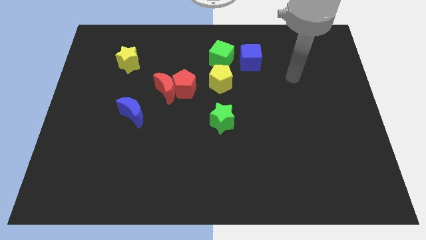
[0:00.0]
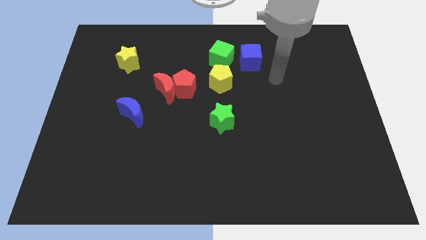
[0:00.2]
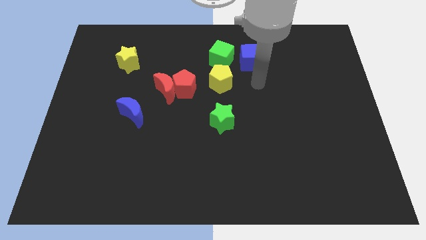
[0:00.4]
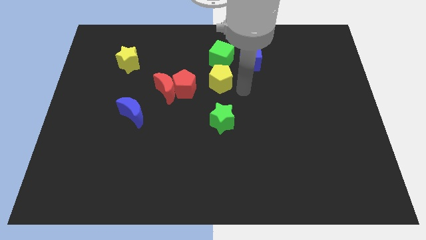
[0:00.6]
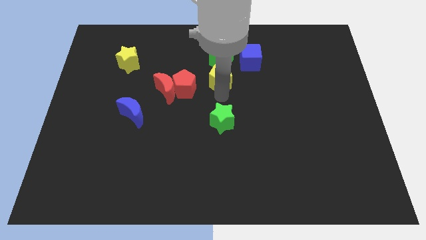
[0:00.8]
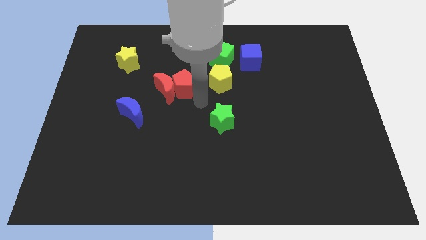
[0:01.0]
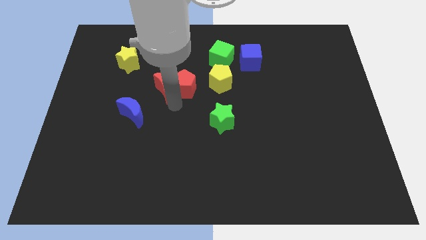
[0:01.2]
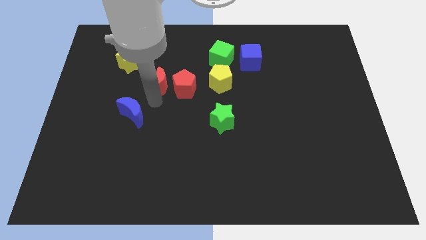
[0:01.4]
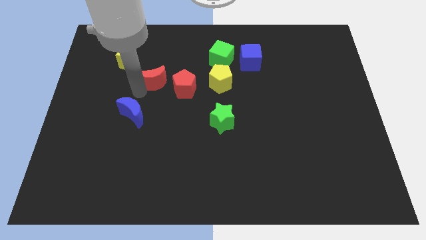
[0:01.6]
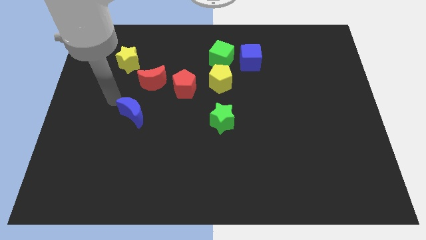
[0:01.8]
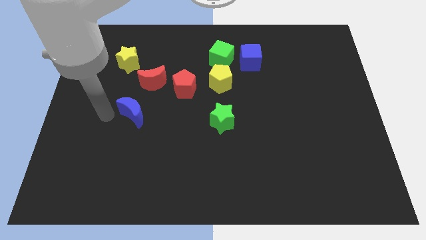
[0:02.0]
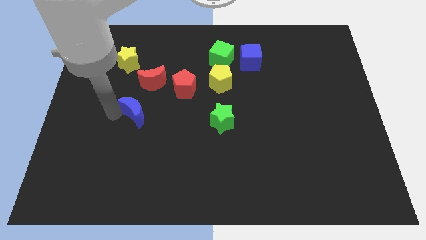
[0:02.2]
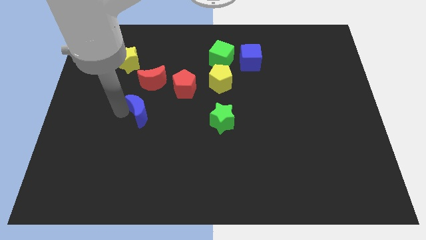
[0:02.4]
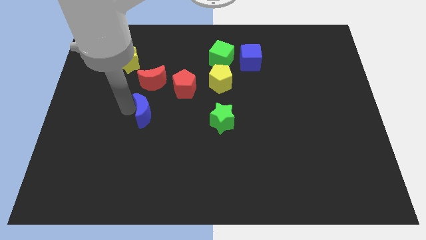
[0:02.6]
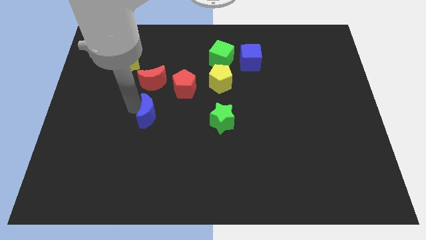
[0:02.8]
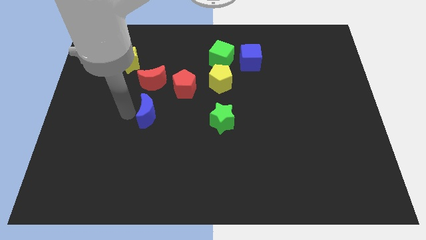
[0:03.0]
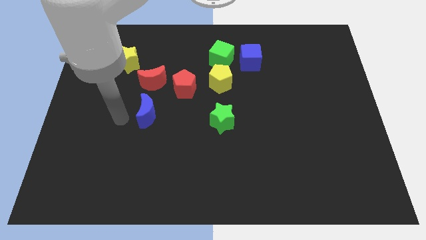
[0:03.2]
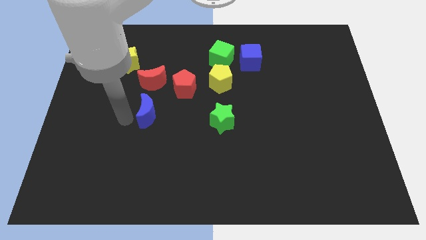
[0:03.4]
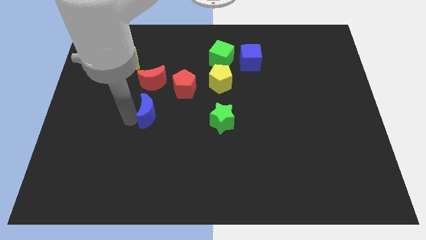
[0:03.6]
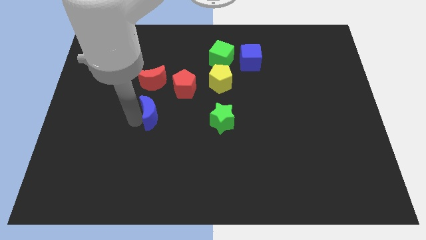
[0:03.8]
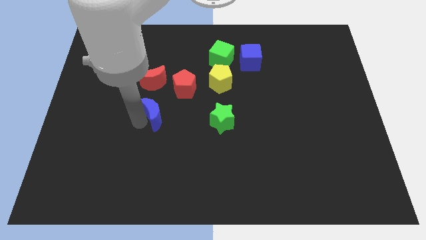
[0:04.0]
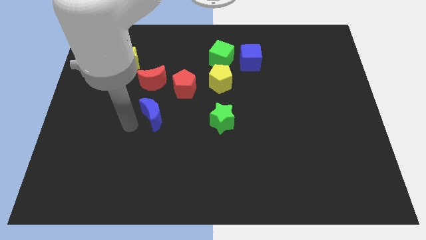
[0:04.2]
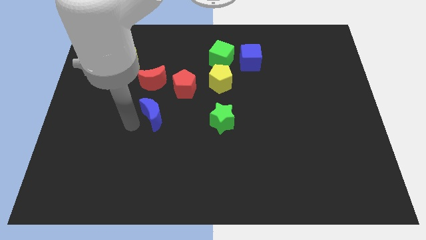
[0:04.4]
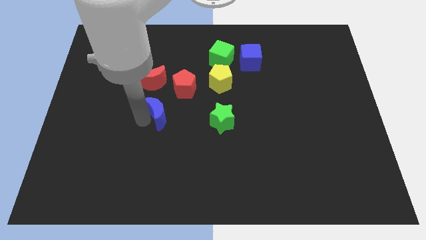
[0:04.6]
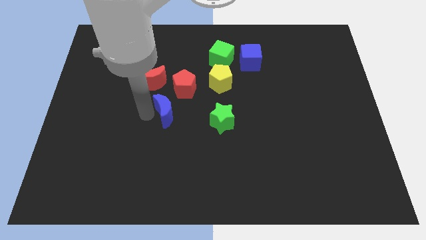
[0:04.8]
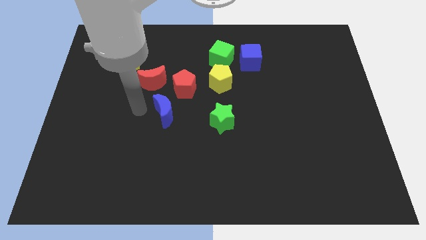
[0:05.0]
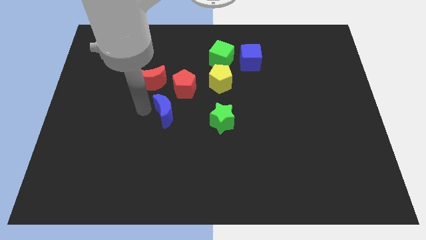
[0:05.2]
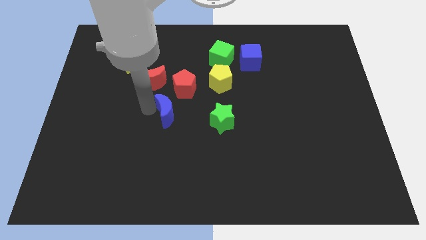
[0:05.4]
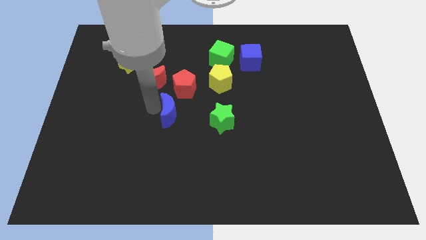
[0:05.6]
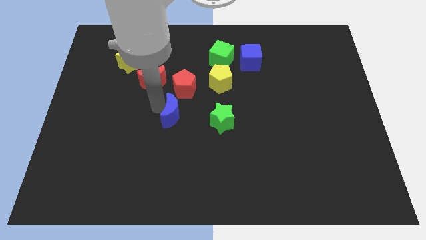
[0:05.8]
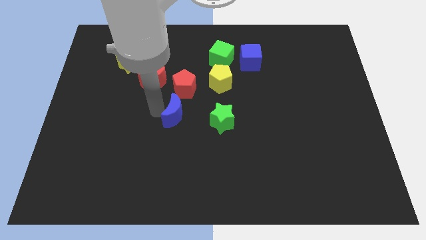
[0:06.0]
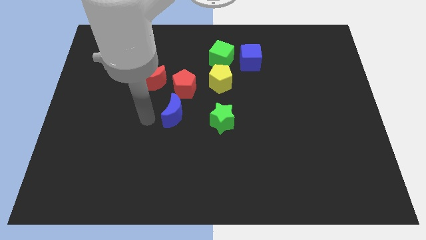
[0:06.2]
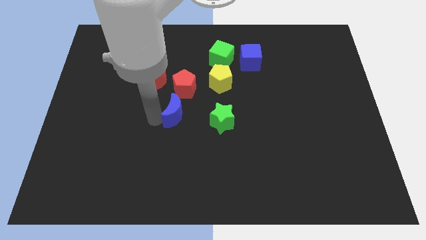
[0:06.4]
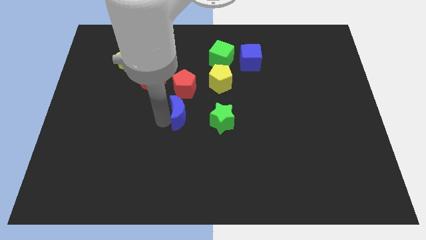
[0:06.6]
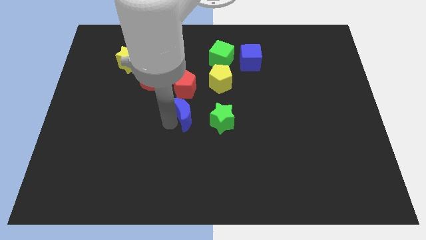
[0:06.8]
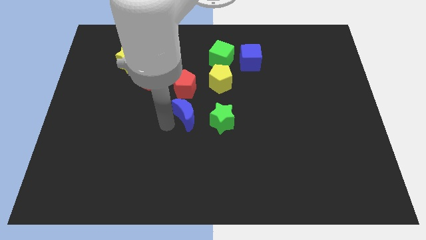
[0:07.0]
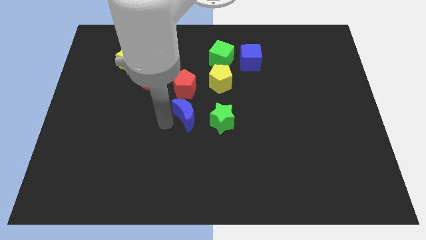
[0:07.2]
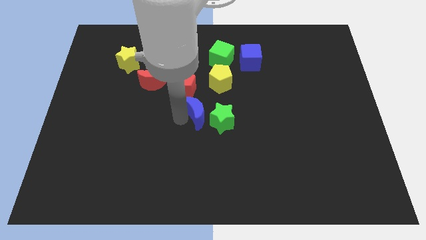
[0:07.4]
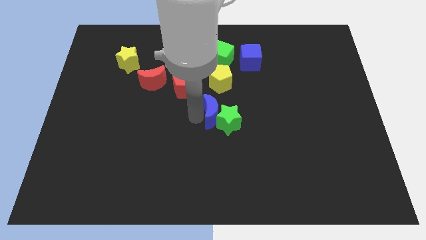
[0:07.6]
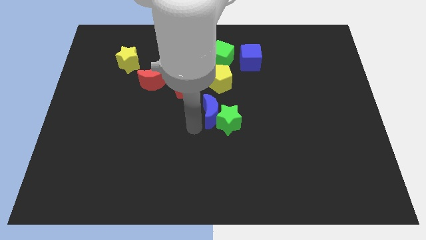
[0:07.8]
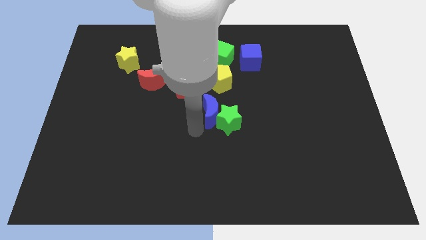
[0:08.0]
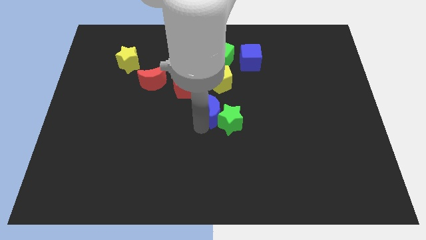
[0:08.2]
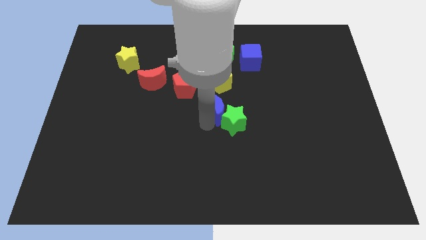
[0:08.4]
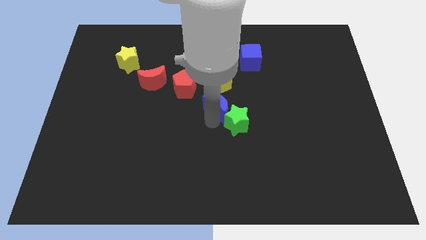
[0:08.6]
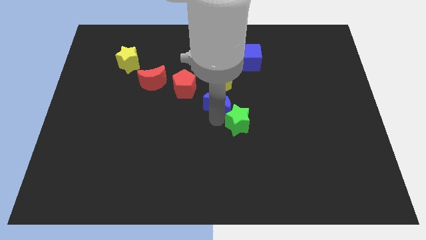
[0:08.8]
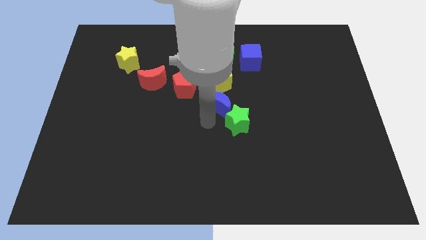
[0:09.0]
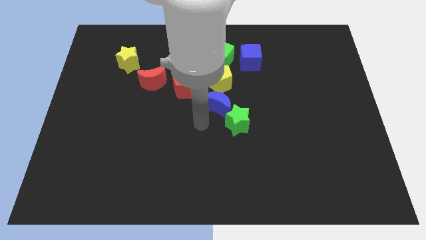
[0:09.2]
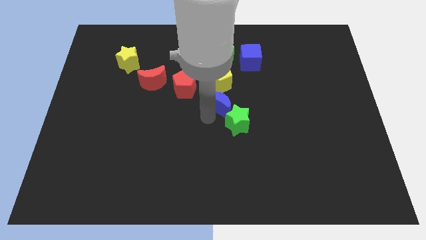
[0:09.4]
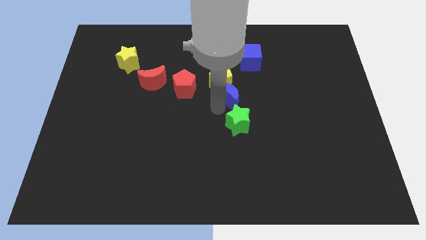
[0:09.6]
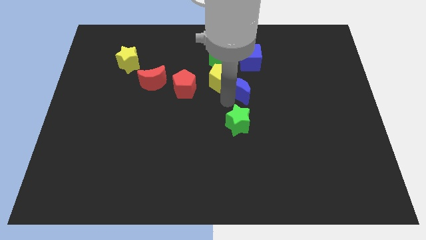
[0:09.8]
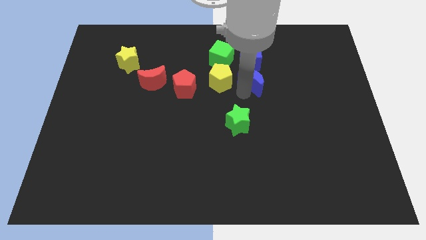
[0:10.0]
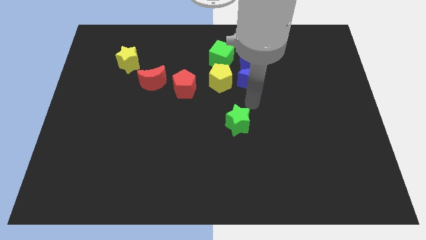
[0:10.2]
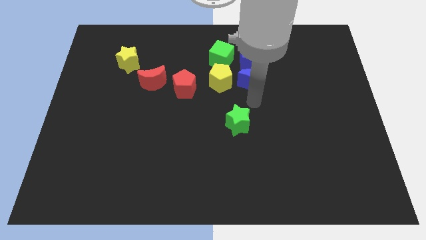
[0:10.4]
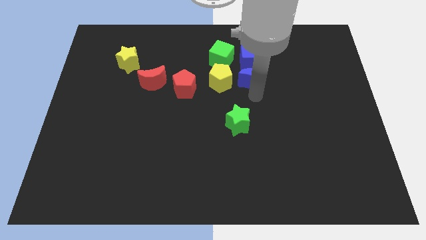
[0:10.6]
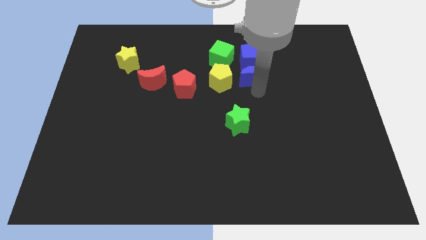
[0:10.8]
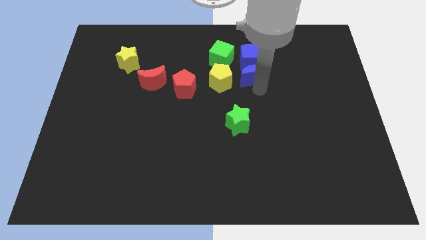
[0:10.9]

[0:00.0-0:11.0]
push the blue moon next to the blue cube

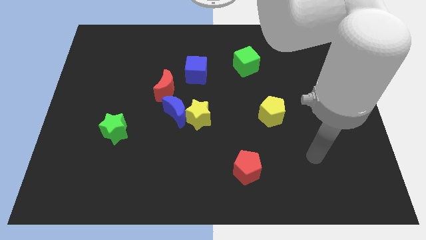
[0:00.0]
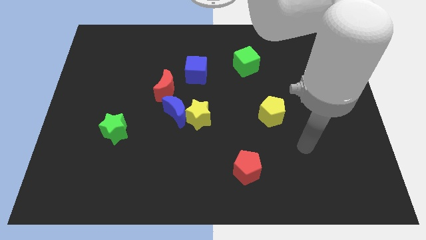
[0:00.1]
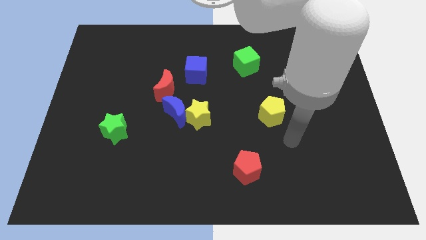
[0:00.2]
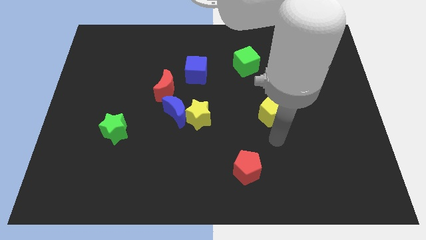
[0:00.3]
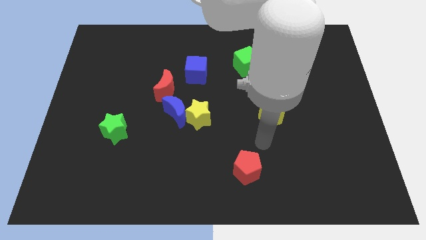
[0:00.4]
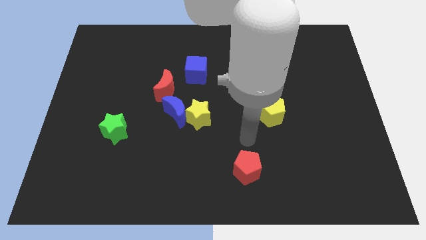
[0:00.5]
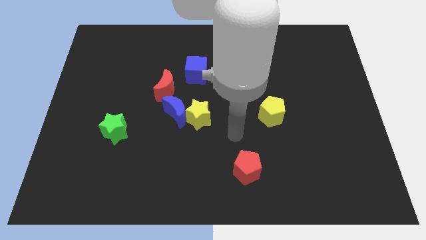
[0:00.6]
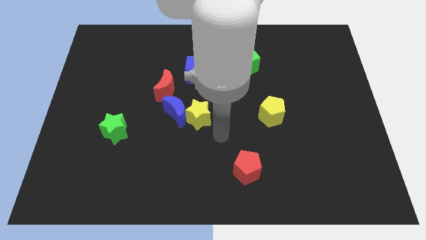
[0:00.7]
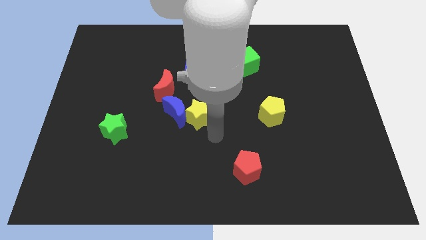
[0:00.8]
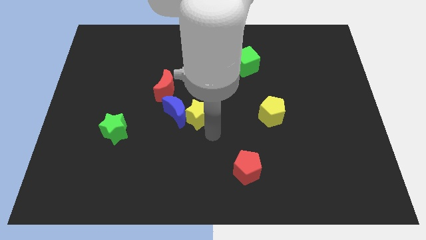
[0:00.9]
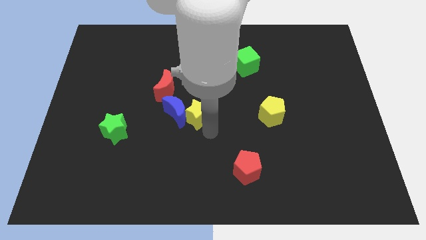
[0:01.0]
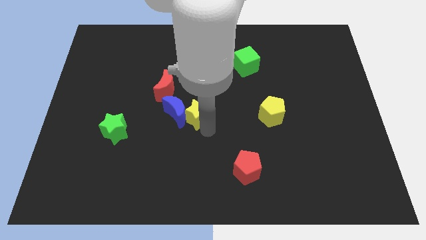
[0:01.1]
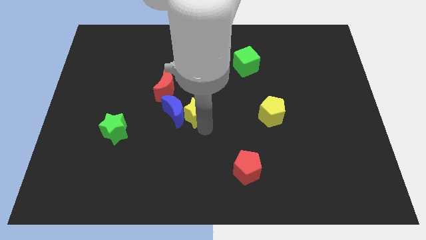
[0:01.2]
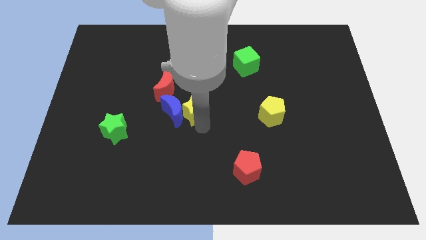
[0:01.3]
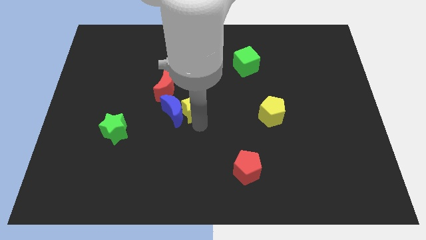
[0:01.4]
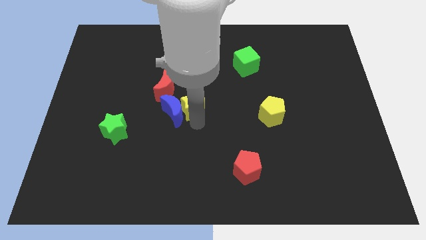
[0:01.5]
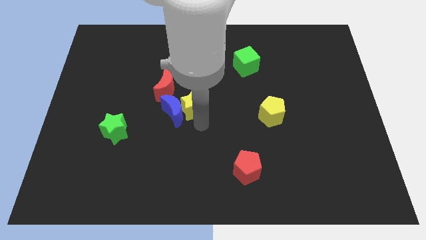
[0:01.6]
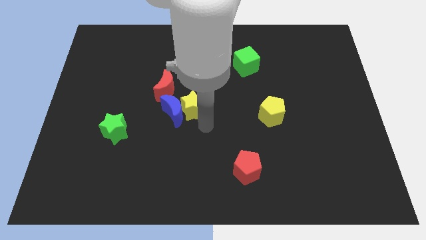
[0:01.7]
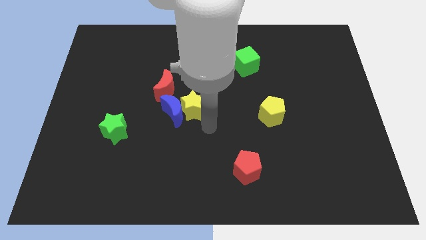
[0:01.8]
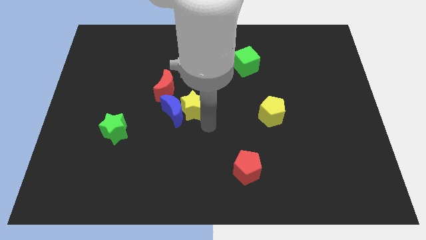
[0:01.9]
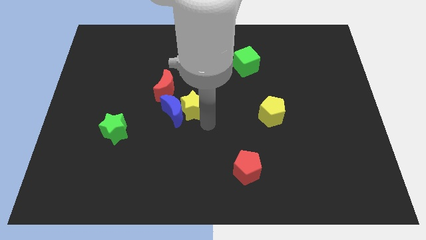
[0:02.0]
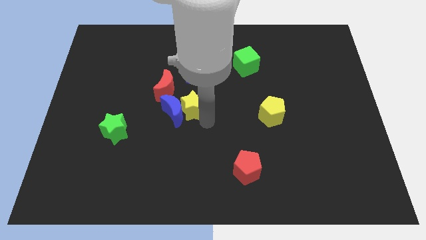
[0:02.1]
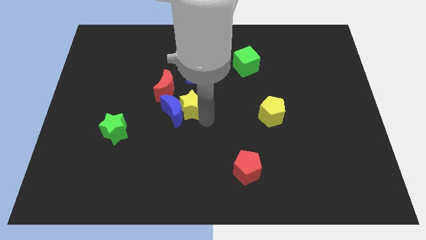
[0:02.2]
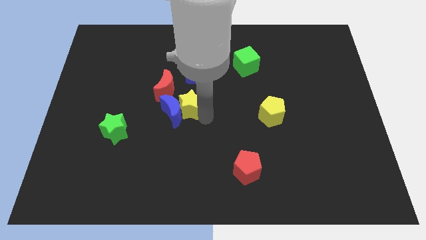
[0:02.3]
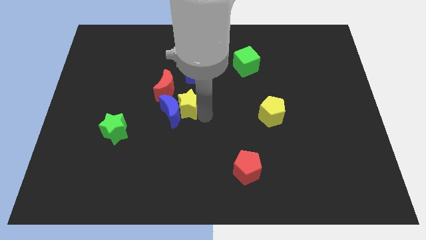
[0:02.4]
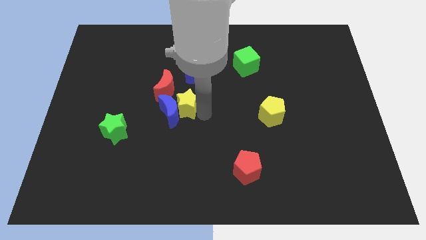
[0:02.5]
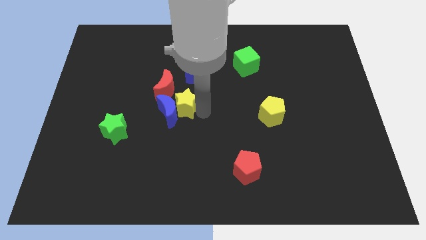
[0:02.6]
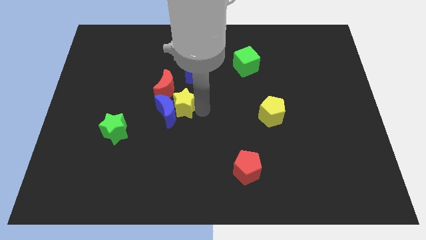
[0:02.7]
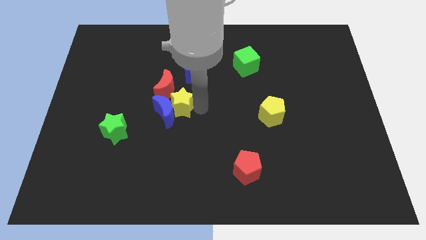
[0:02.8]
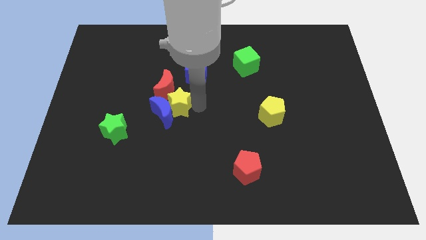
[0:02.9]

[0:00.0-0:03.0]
move the yellow star towards the red moon
